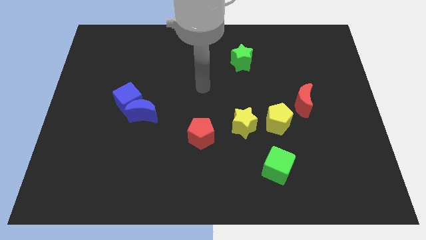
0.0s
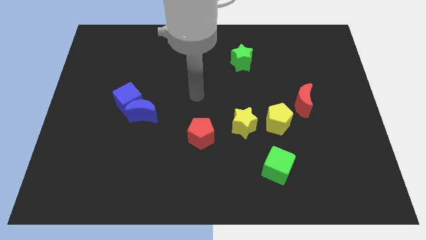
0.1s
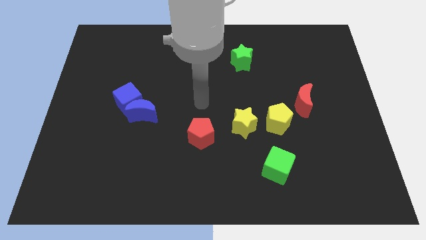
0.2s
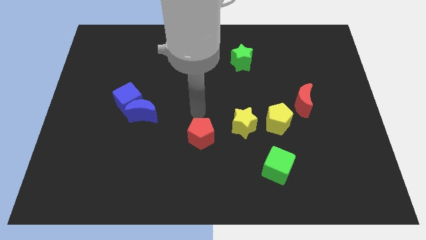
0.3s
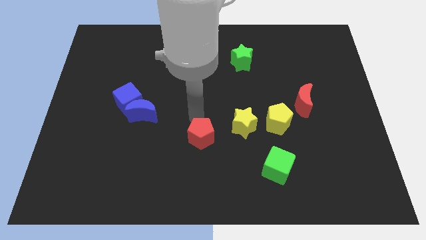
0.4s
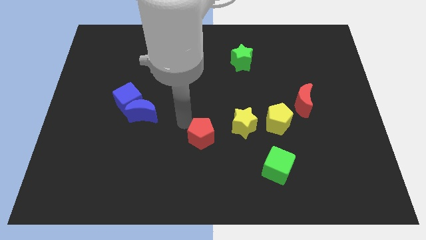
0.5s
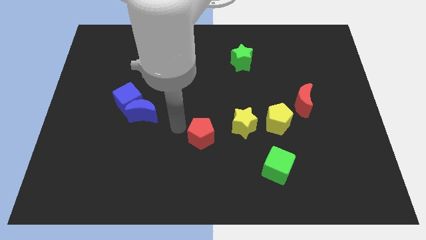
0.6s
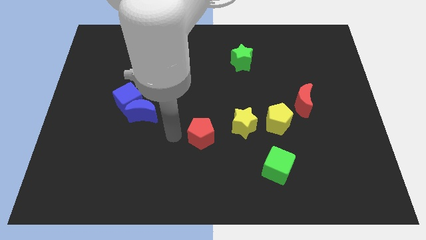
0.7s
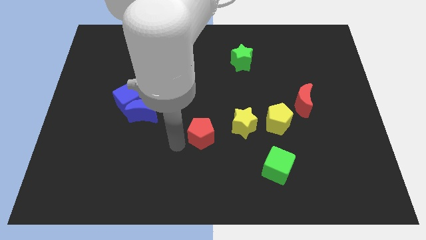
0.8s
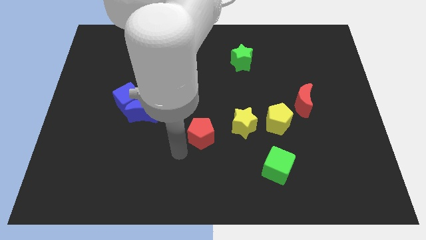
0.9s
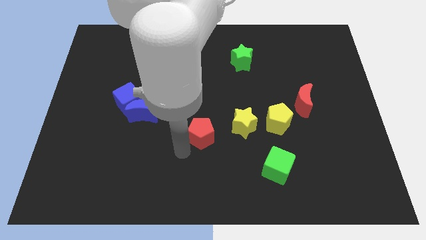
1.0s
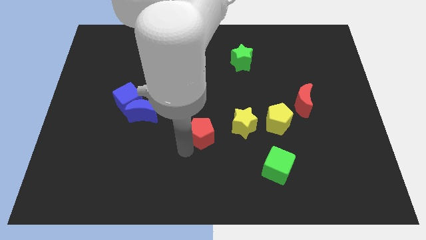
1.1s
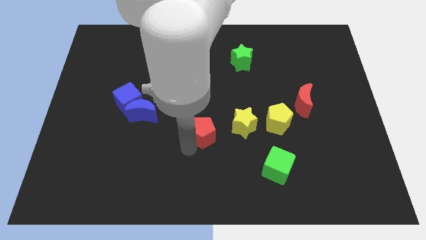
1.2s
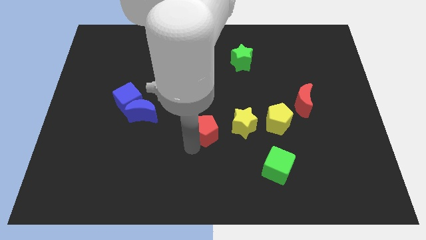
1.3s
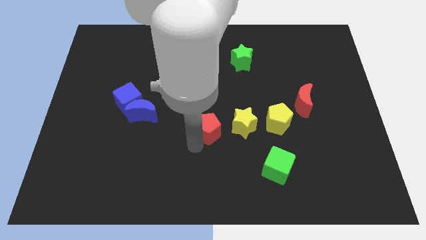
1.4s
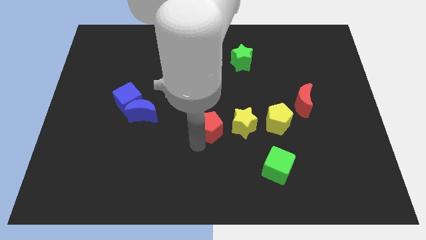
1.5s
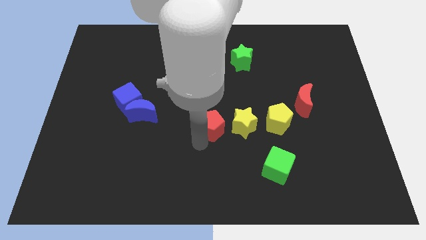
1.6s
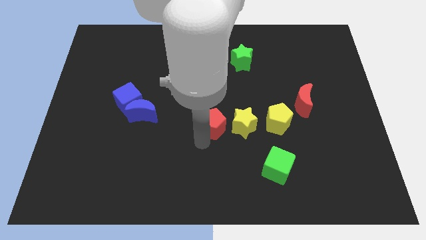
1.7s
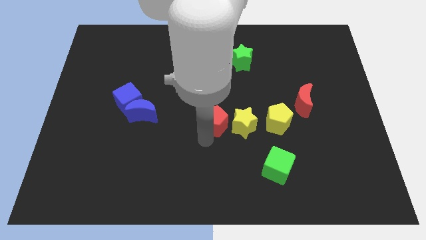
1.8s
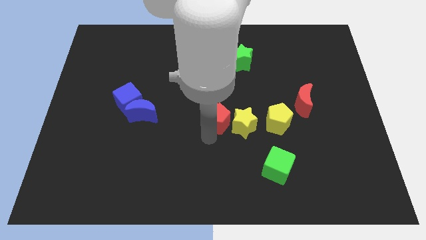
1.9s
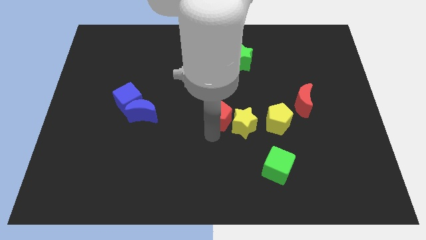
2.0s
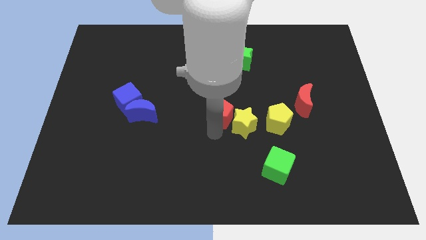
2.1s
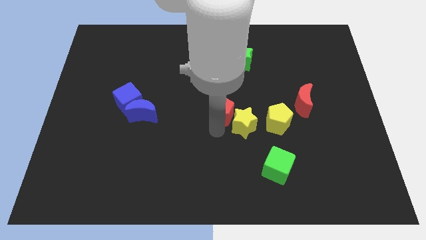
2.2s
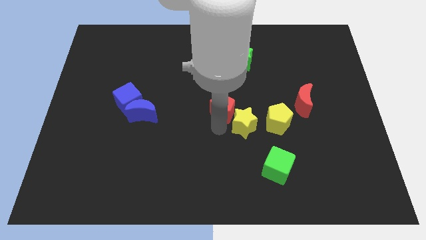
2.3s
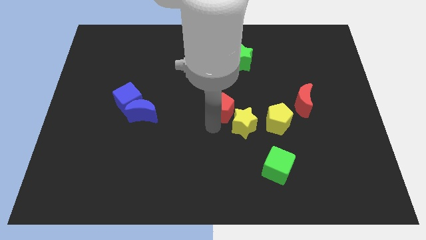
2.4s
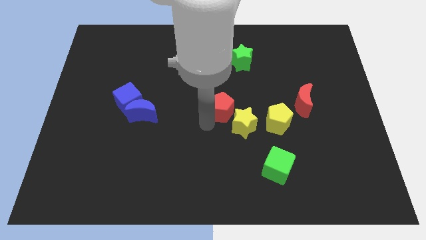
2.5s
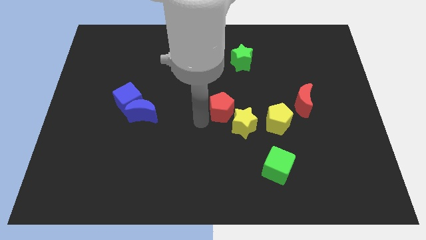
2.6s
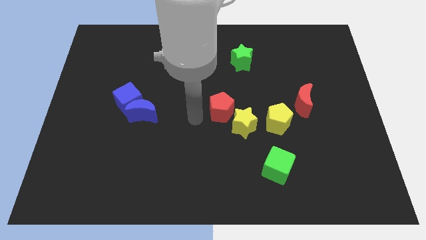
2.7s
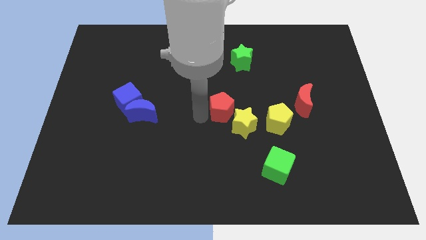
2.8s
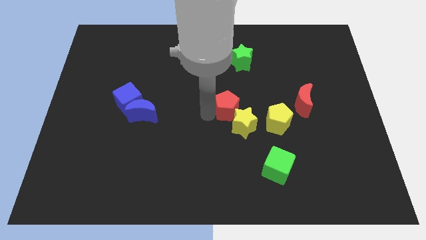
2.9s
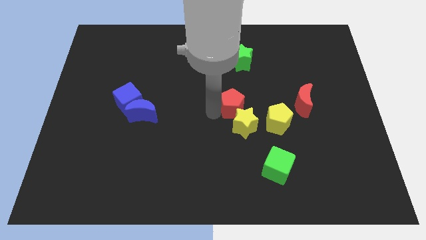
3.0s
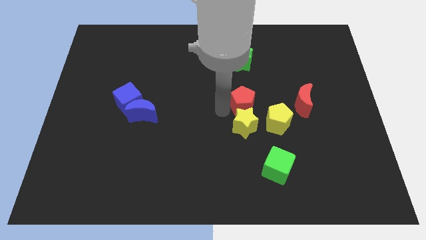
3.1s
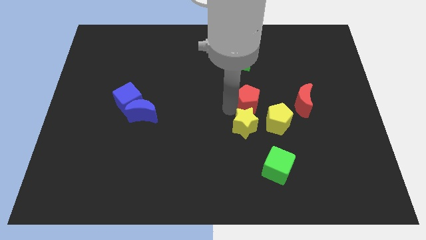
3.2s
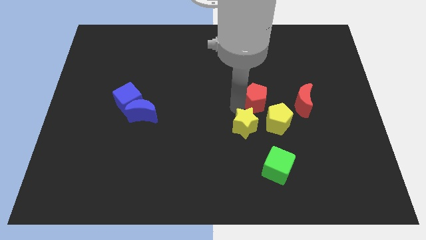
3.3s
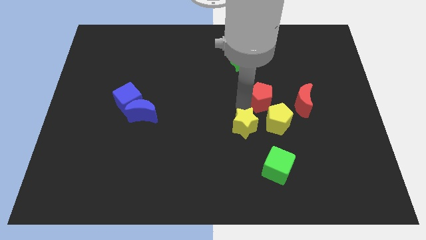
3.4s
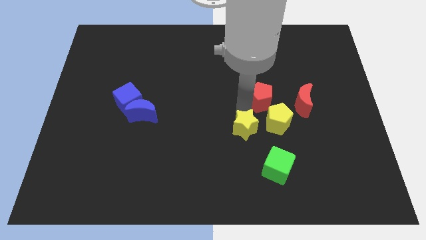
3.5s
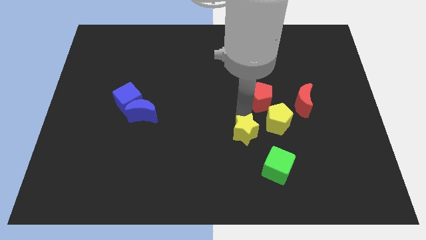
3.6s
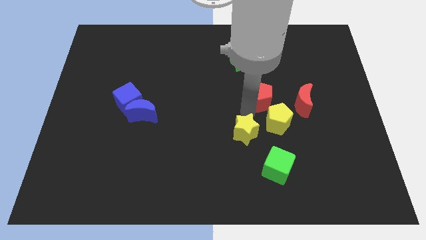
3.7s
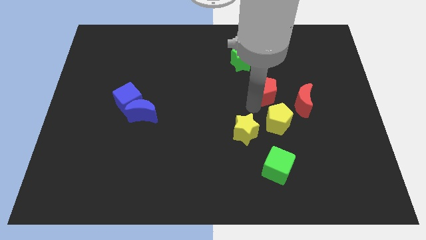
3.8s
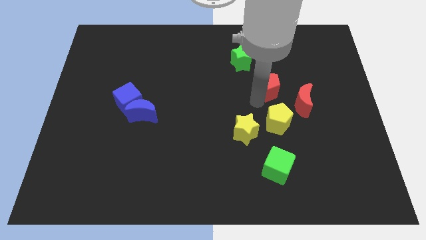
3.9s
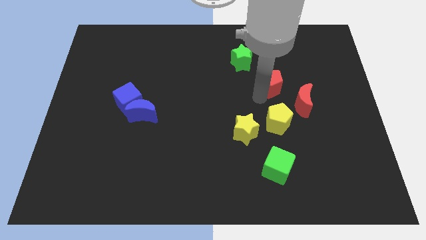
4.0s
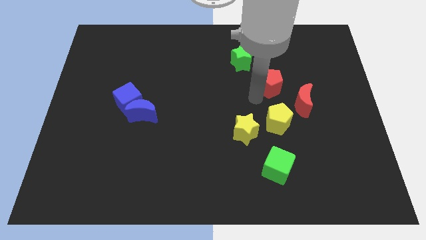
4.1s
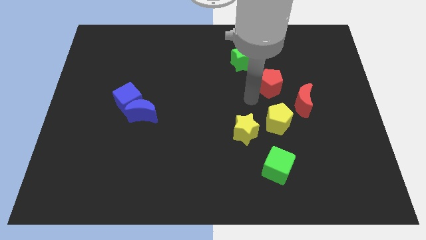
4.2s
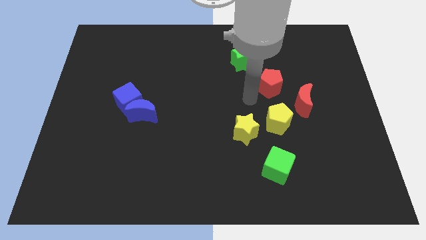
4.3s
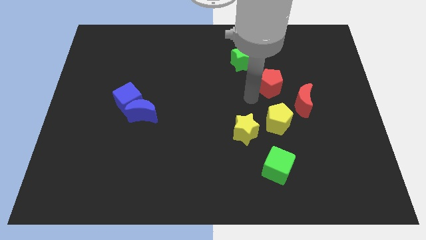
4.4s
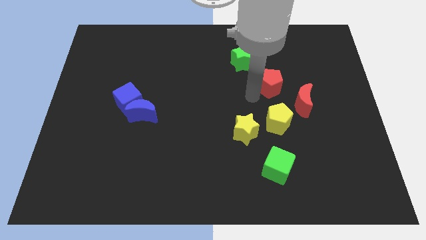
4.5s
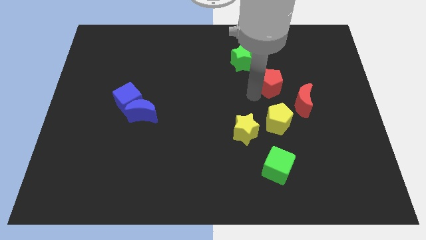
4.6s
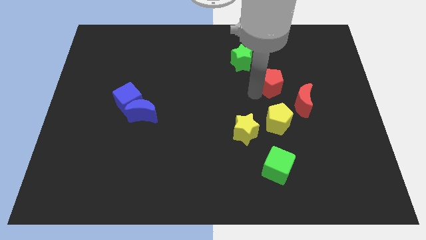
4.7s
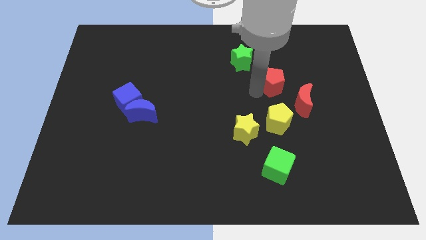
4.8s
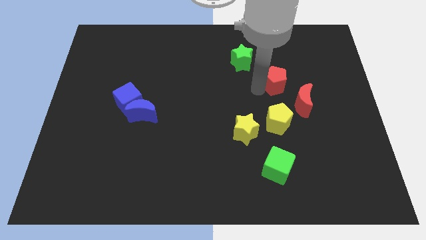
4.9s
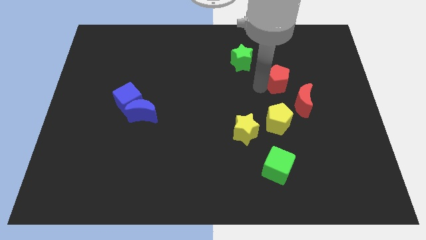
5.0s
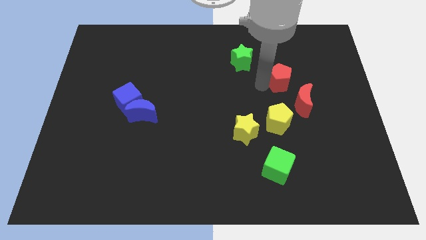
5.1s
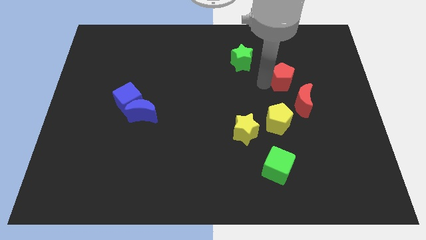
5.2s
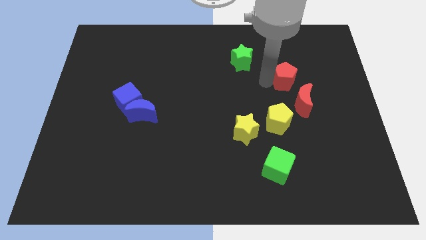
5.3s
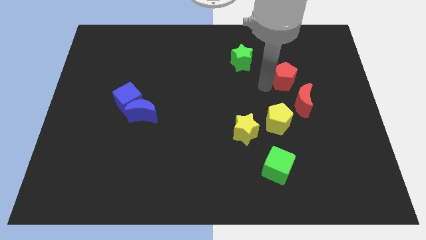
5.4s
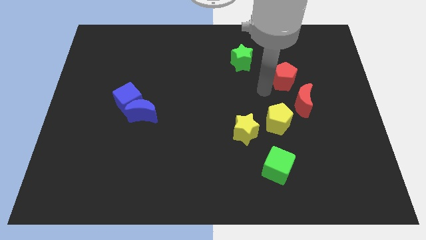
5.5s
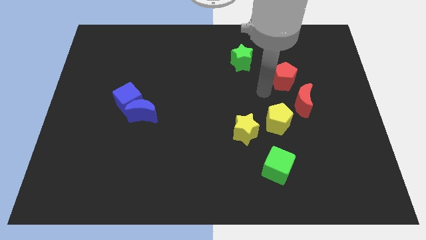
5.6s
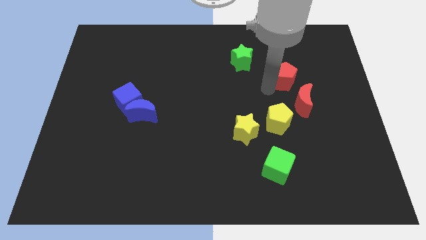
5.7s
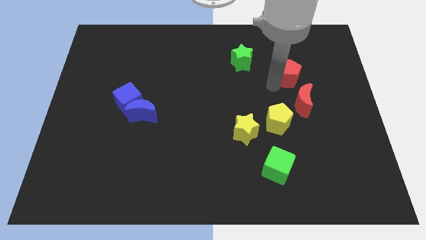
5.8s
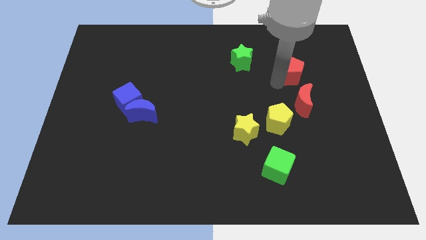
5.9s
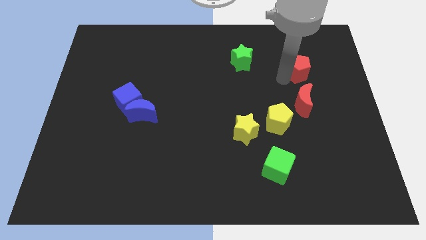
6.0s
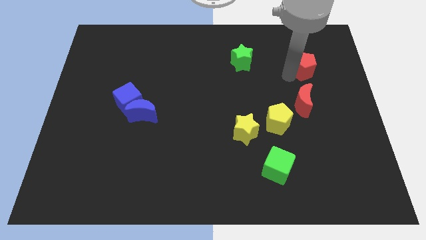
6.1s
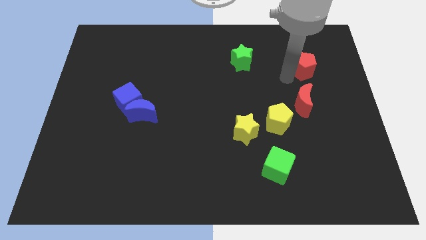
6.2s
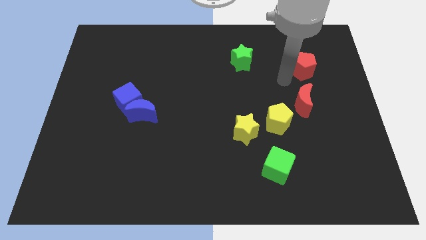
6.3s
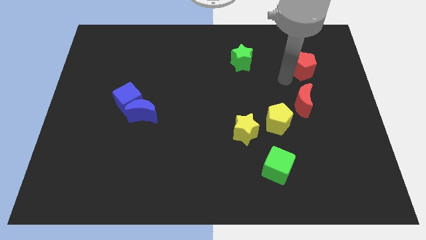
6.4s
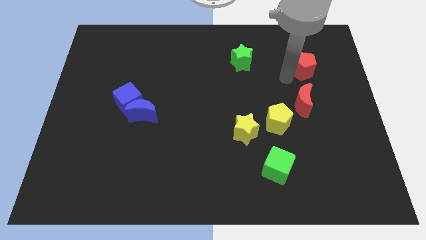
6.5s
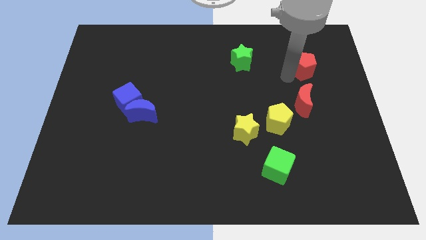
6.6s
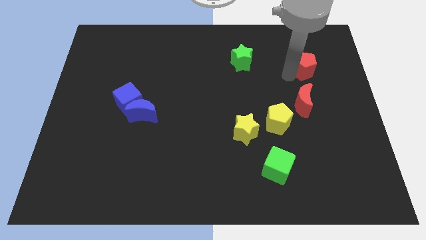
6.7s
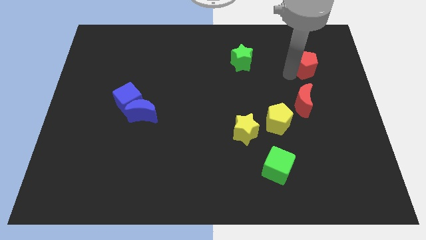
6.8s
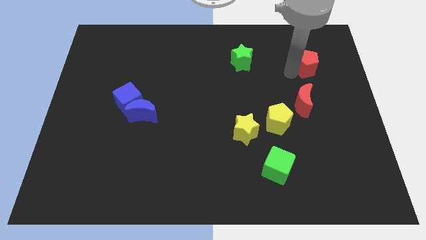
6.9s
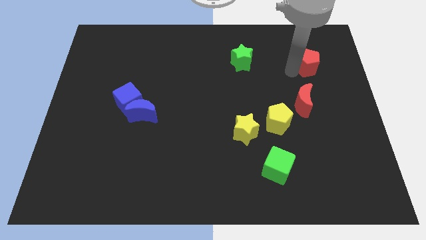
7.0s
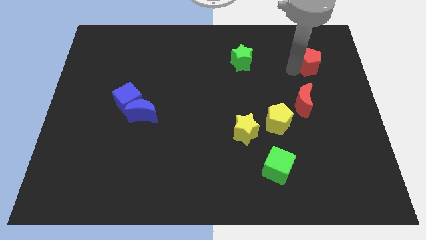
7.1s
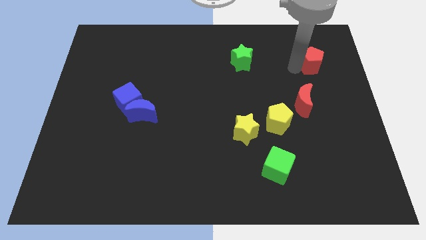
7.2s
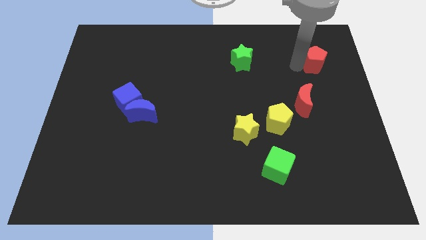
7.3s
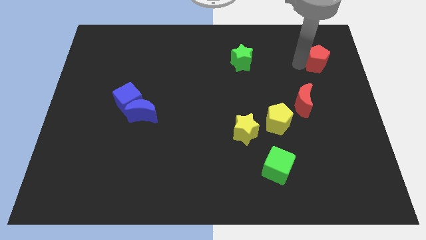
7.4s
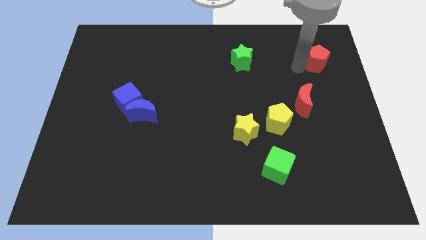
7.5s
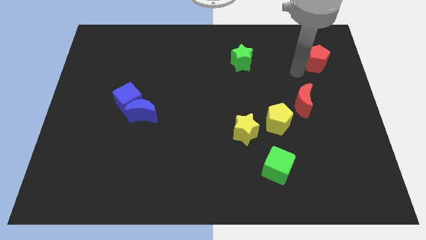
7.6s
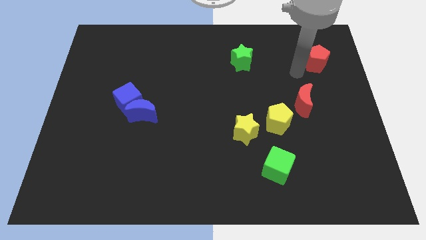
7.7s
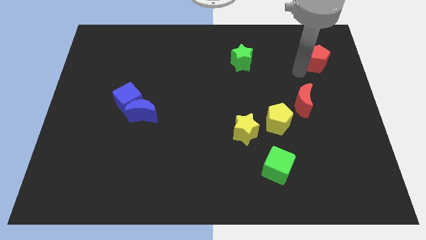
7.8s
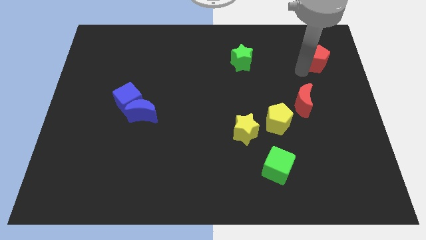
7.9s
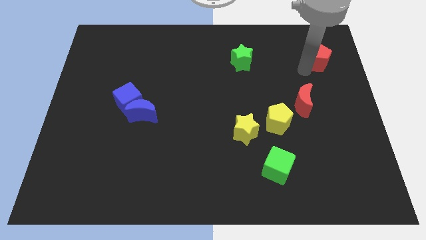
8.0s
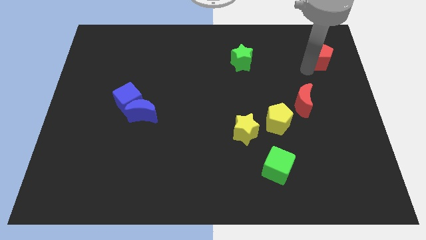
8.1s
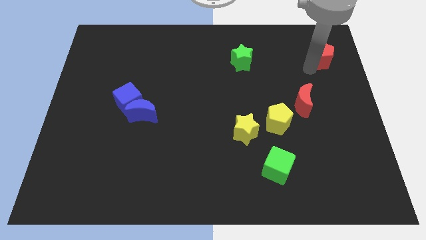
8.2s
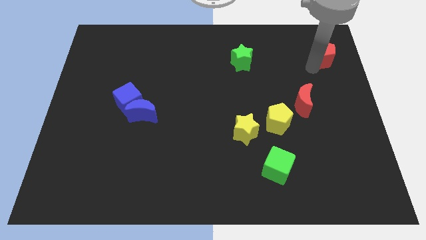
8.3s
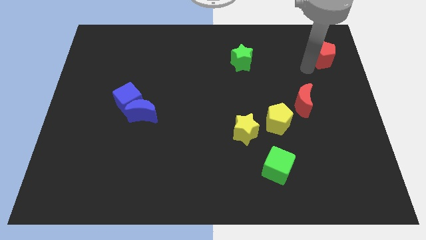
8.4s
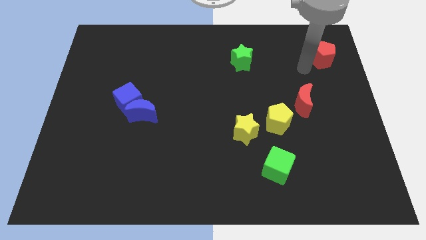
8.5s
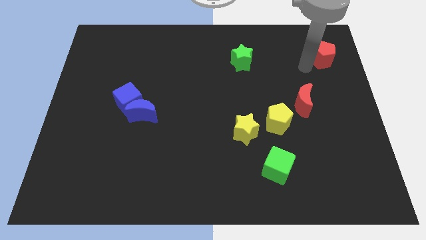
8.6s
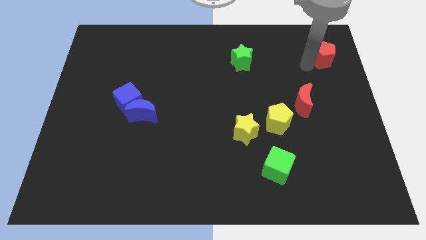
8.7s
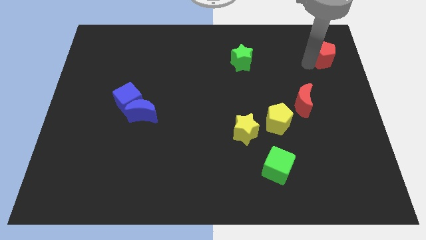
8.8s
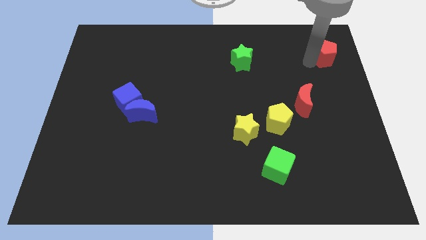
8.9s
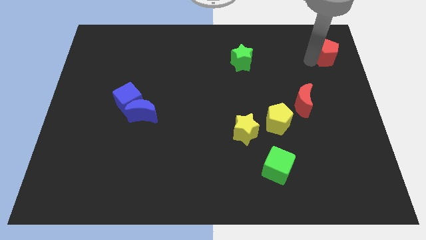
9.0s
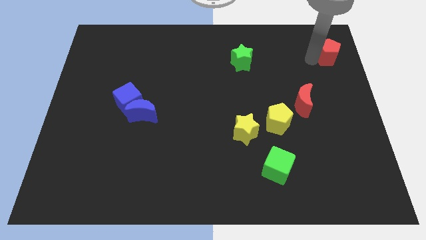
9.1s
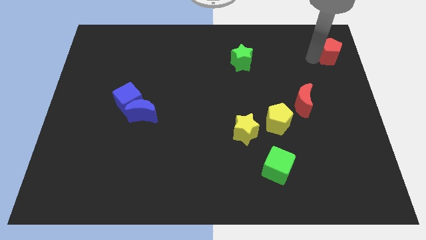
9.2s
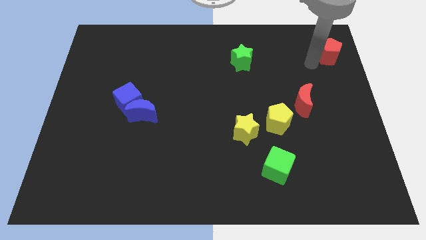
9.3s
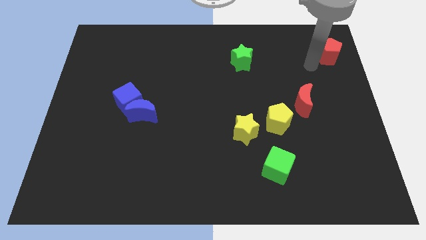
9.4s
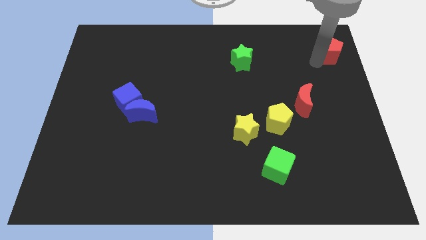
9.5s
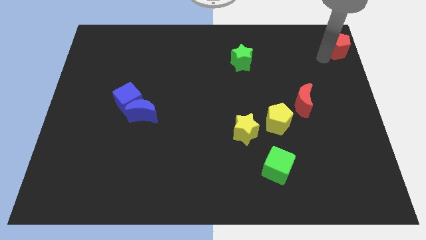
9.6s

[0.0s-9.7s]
slide the red pentagon to the top right
